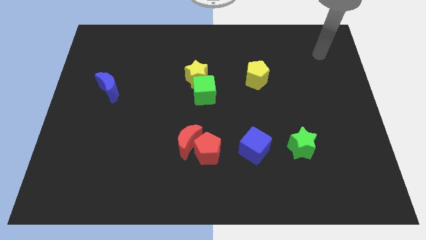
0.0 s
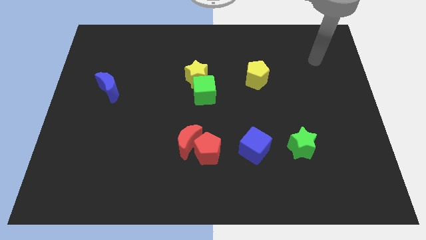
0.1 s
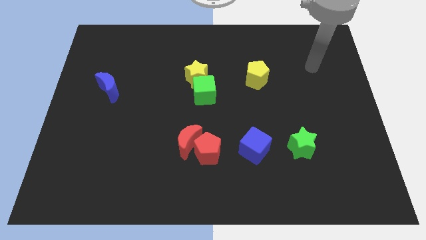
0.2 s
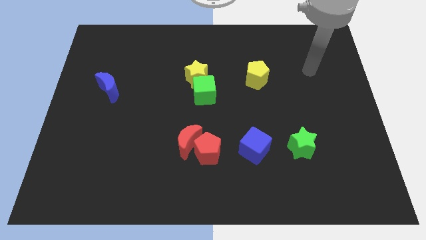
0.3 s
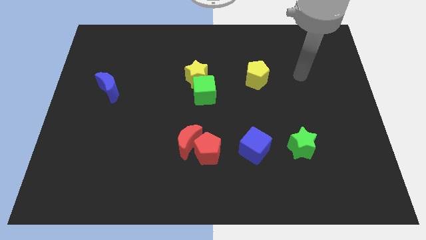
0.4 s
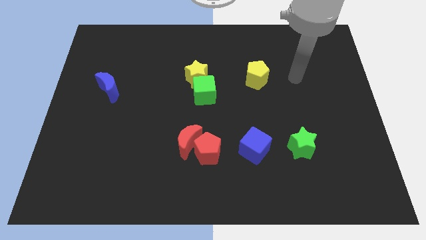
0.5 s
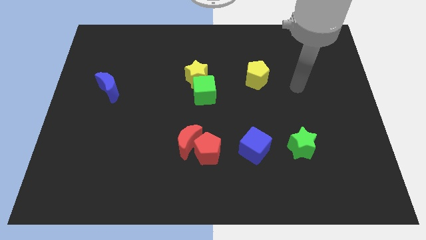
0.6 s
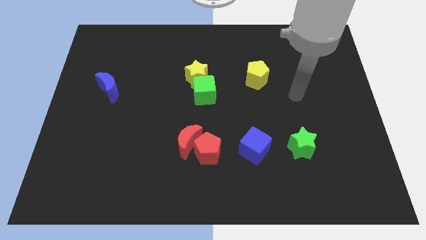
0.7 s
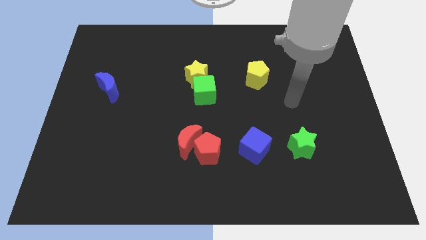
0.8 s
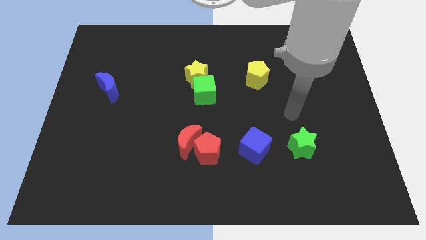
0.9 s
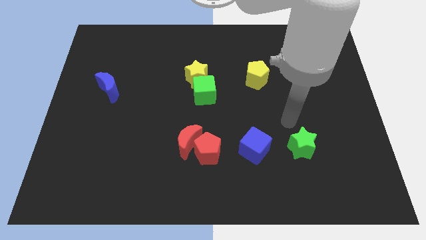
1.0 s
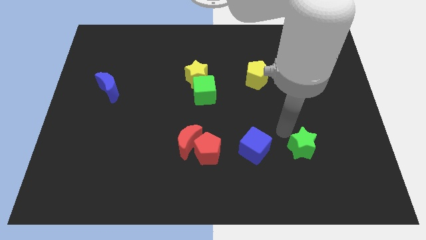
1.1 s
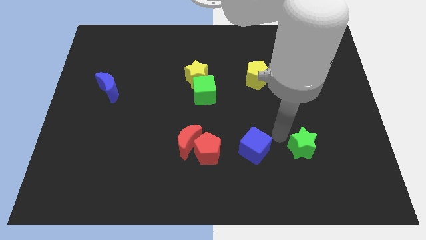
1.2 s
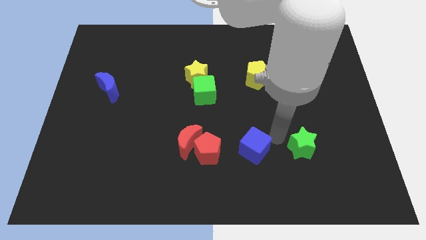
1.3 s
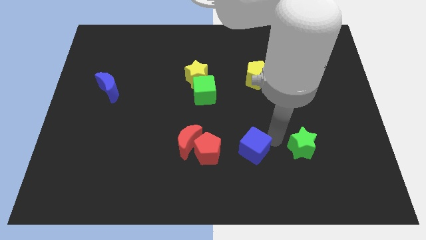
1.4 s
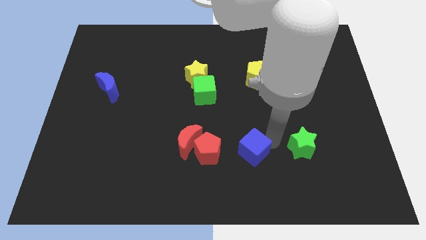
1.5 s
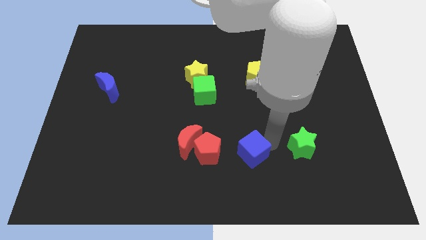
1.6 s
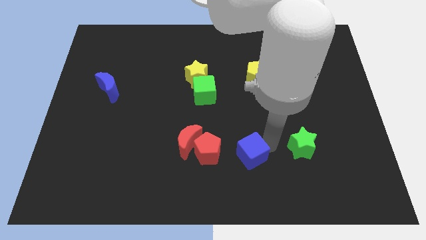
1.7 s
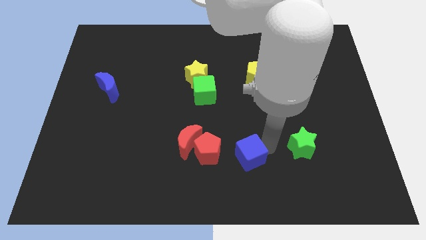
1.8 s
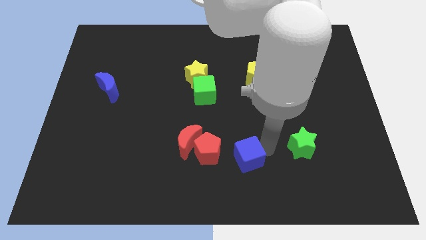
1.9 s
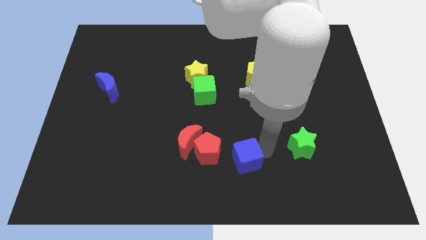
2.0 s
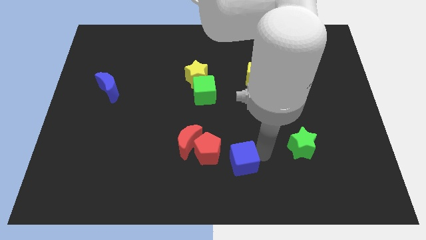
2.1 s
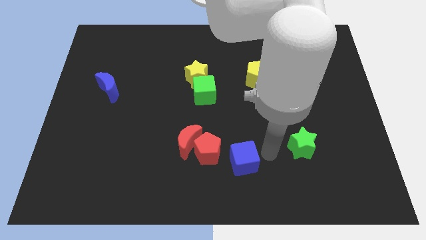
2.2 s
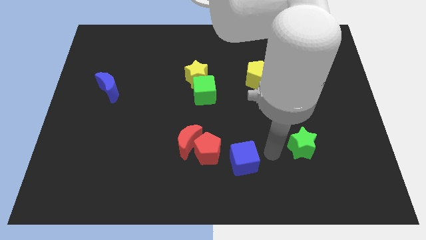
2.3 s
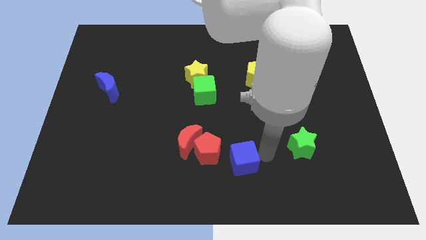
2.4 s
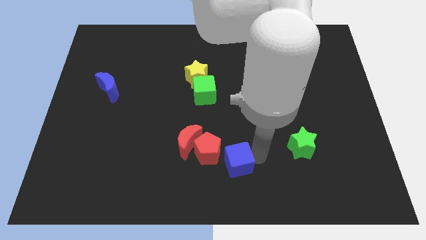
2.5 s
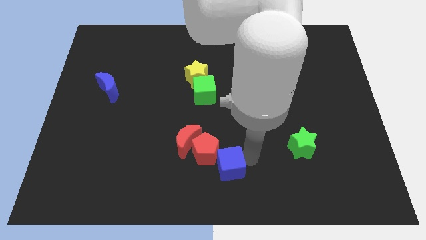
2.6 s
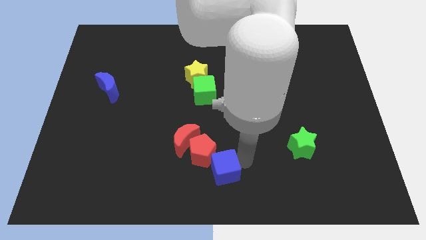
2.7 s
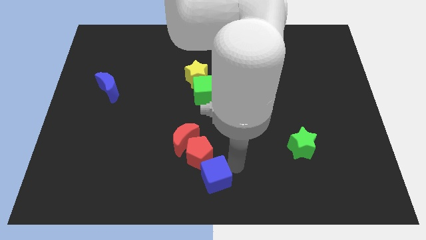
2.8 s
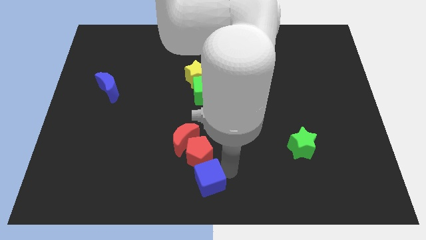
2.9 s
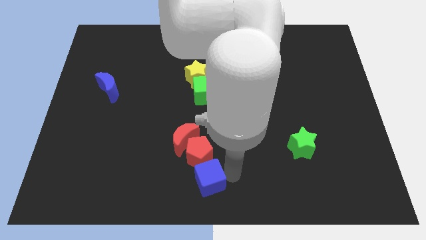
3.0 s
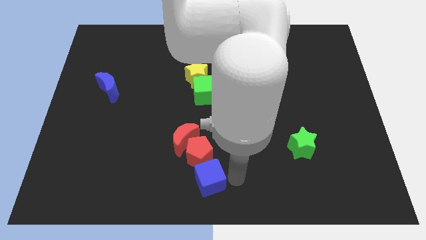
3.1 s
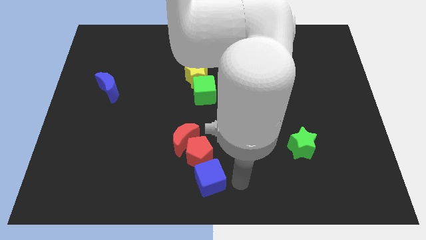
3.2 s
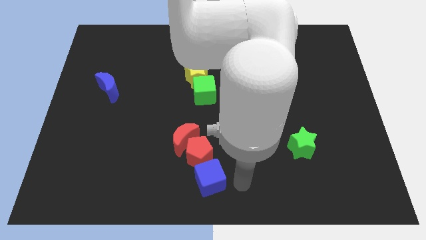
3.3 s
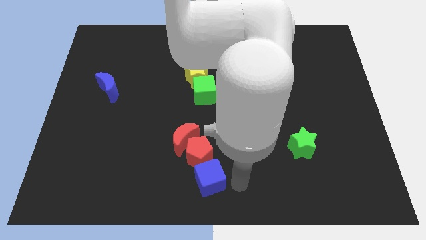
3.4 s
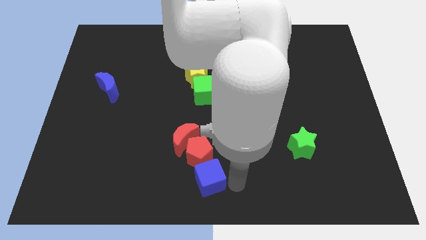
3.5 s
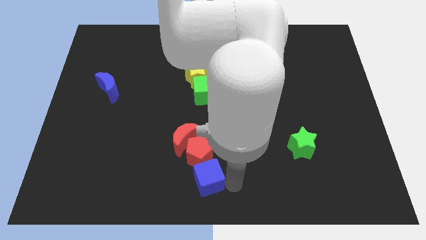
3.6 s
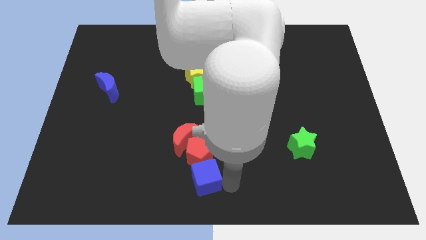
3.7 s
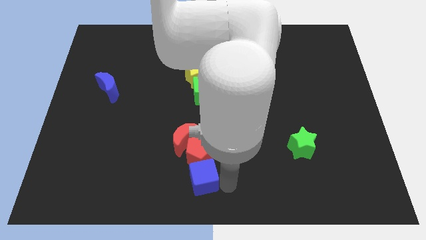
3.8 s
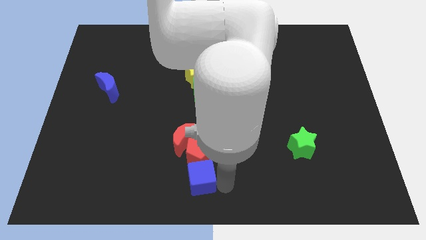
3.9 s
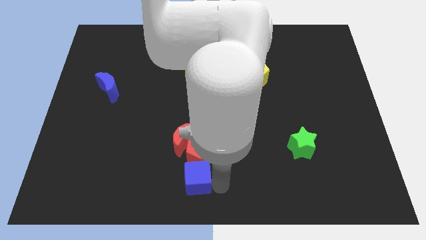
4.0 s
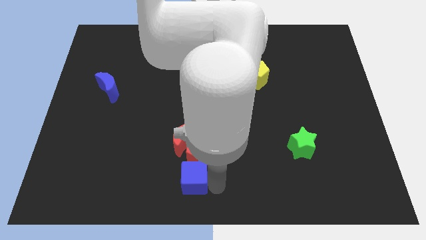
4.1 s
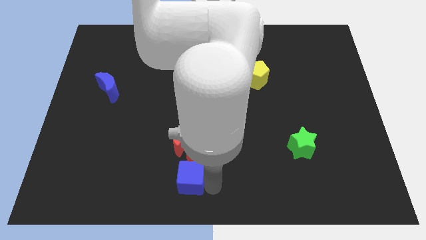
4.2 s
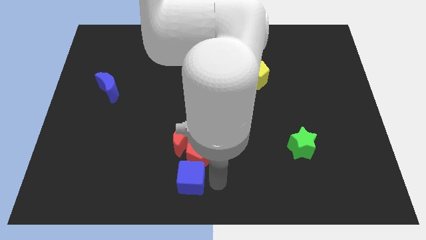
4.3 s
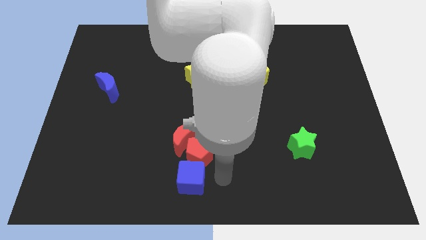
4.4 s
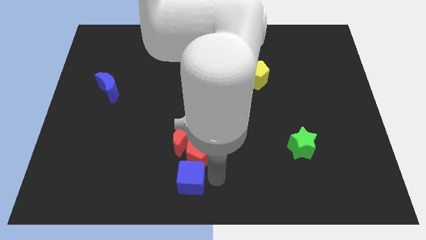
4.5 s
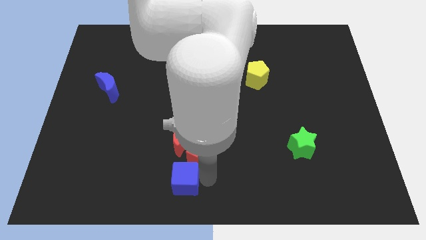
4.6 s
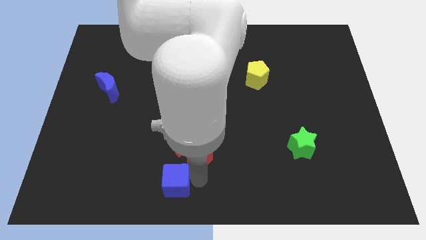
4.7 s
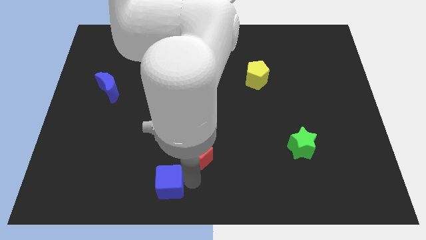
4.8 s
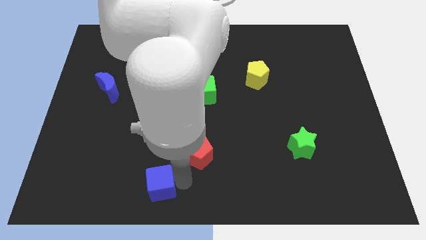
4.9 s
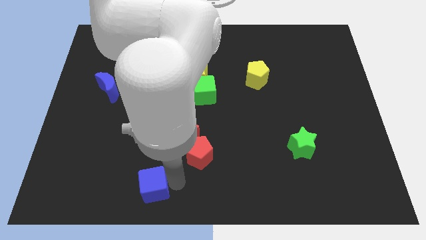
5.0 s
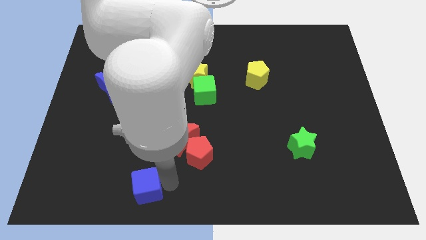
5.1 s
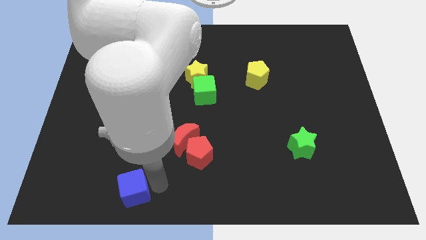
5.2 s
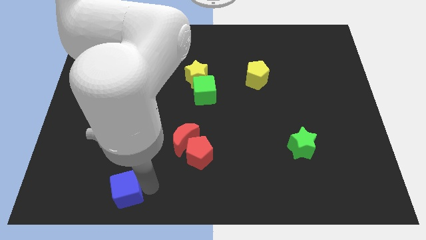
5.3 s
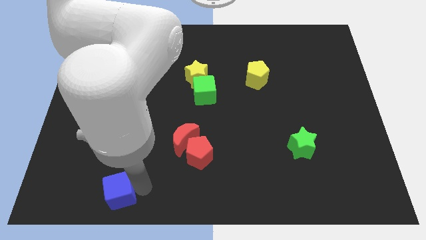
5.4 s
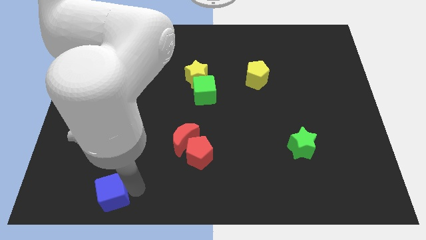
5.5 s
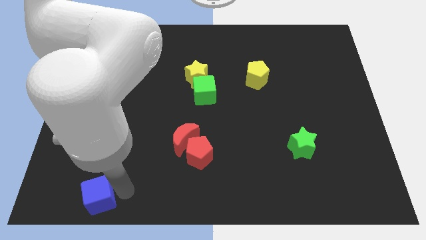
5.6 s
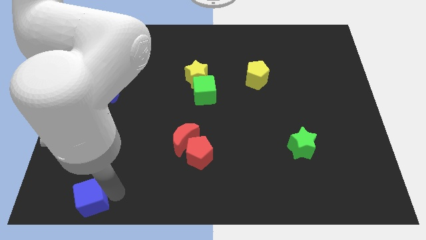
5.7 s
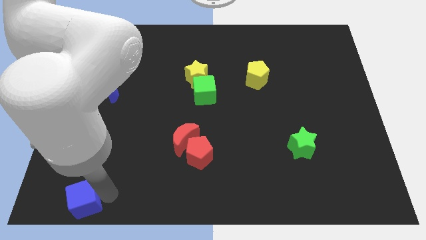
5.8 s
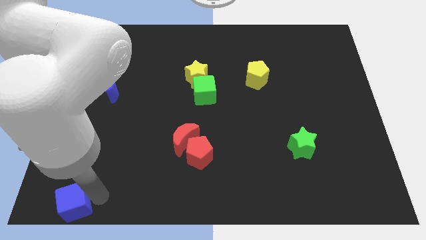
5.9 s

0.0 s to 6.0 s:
put the blue cube to the bottom left

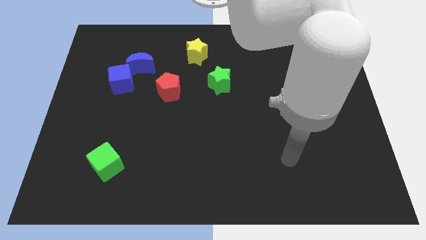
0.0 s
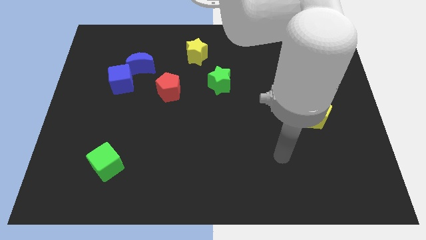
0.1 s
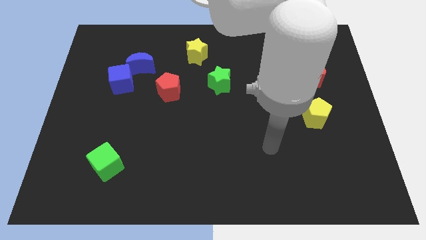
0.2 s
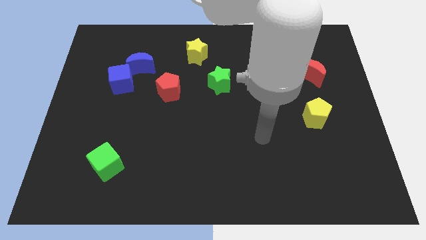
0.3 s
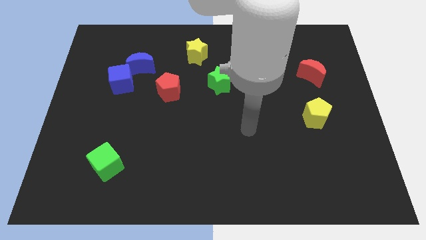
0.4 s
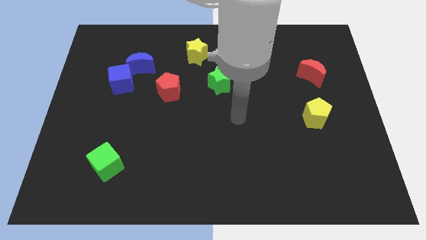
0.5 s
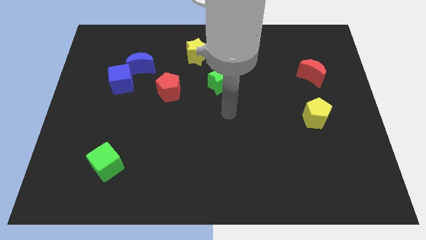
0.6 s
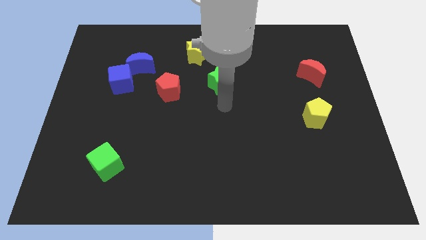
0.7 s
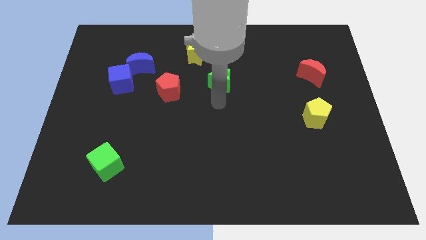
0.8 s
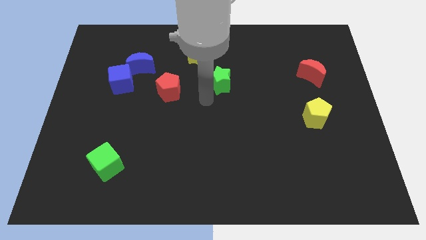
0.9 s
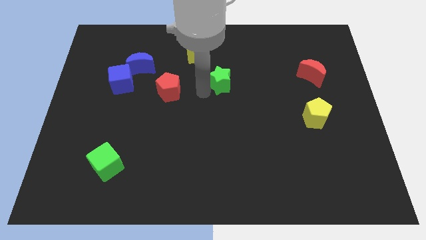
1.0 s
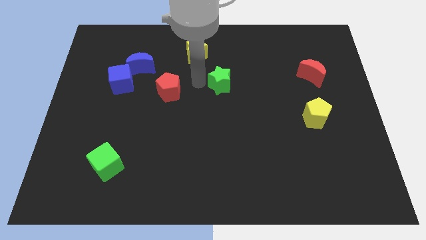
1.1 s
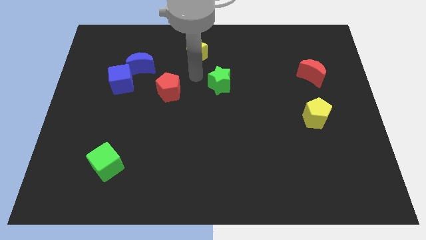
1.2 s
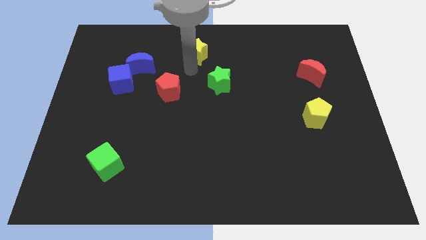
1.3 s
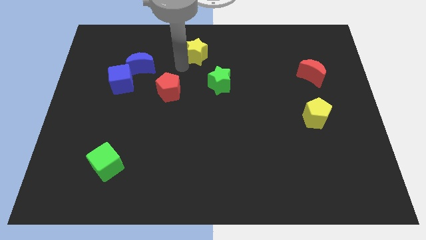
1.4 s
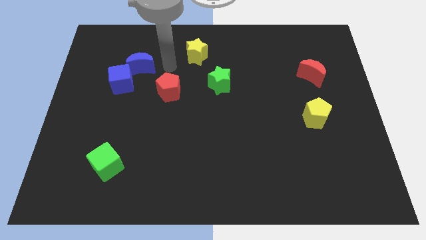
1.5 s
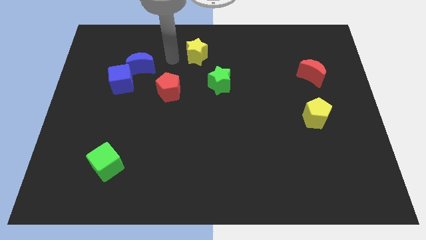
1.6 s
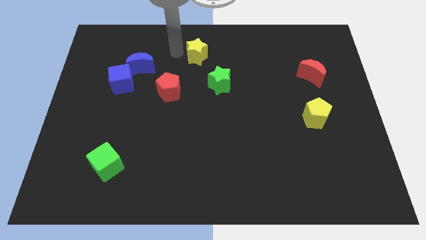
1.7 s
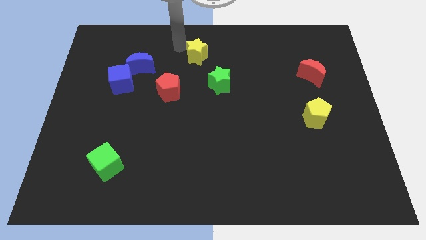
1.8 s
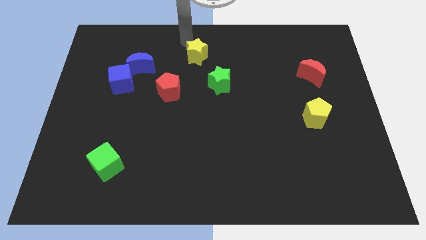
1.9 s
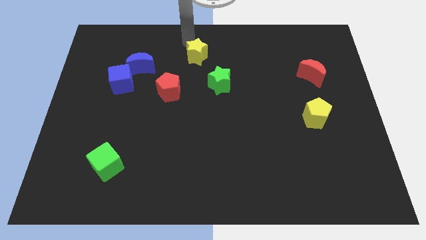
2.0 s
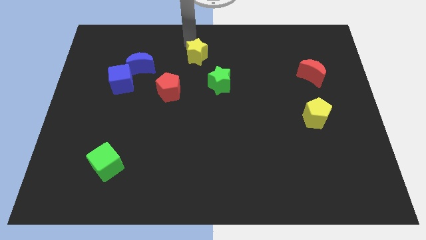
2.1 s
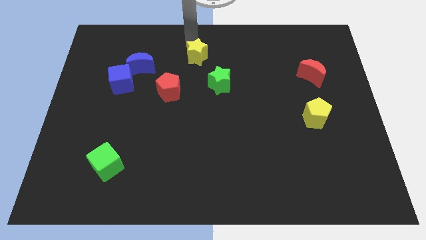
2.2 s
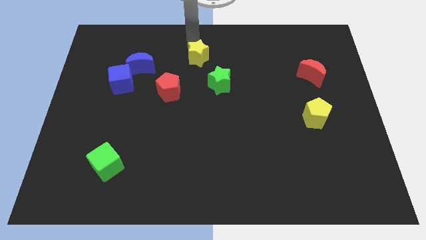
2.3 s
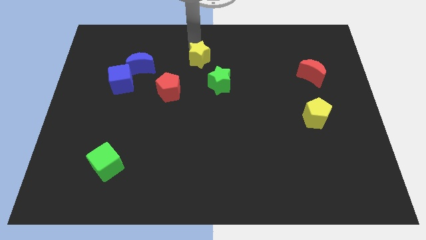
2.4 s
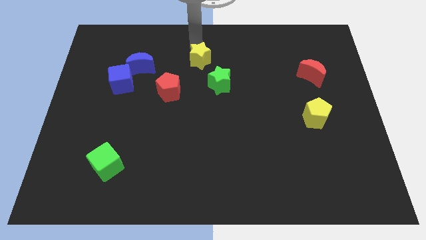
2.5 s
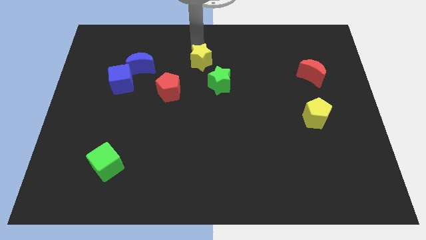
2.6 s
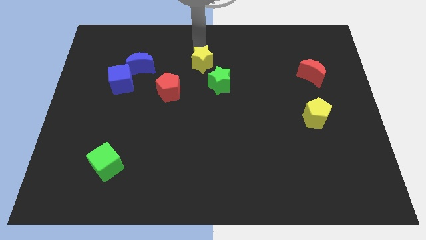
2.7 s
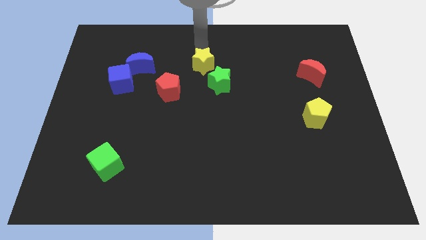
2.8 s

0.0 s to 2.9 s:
push the yellow star to the center
